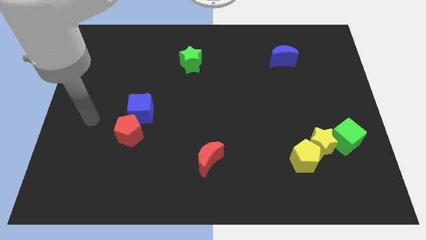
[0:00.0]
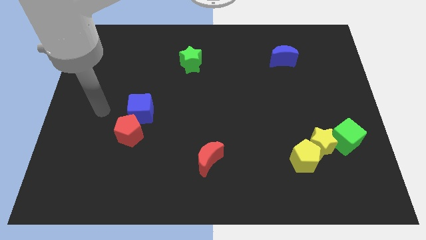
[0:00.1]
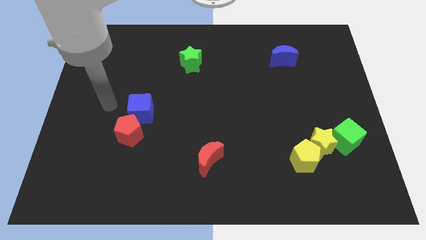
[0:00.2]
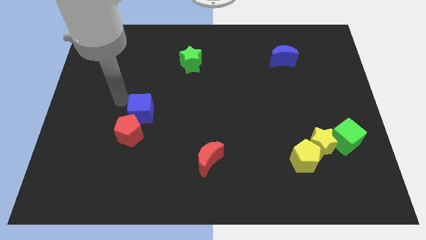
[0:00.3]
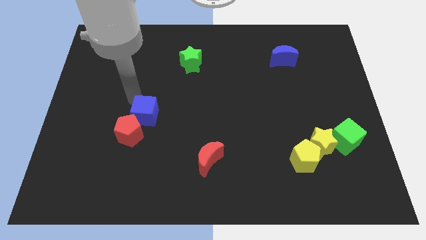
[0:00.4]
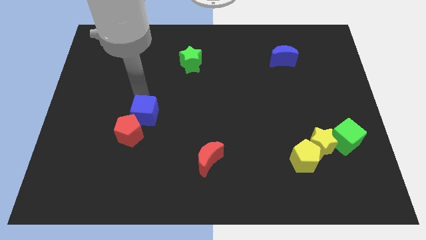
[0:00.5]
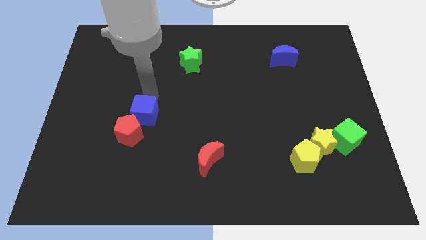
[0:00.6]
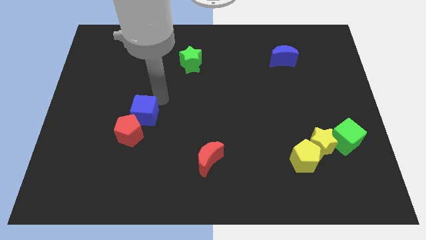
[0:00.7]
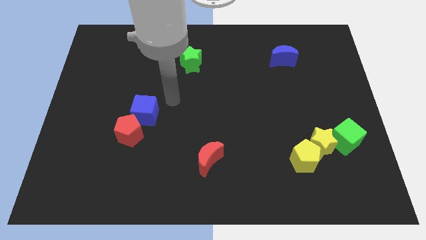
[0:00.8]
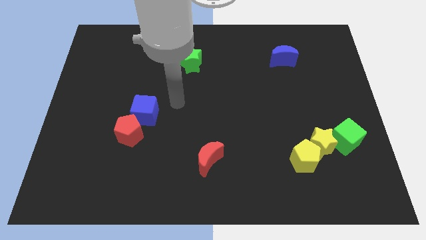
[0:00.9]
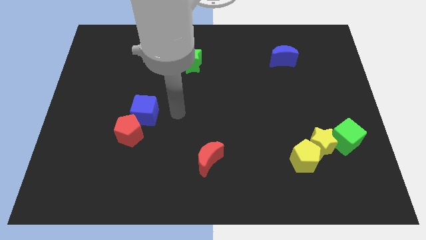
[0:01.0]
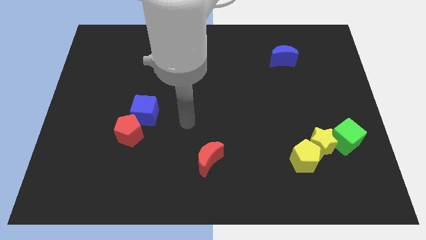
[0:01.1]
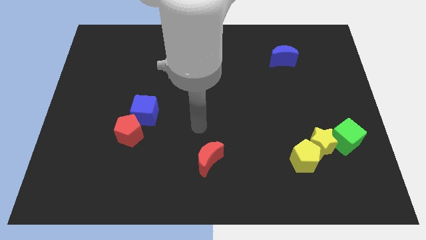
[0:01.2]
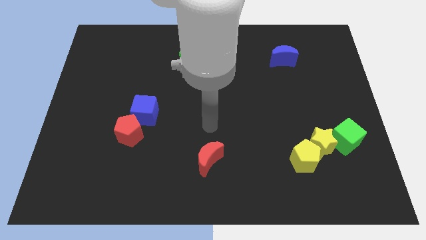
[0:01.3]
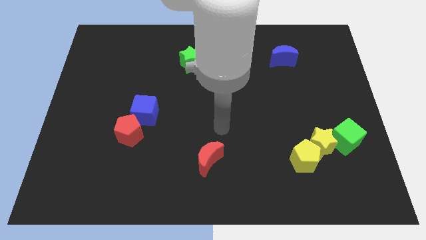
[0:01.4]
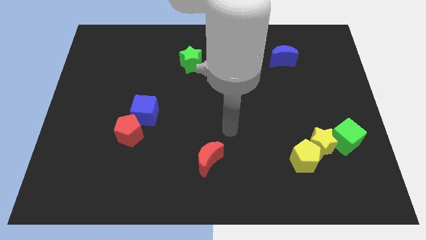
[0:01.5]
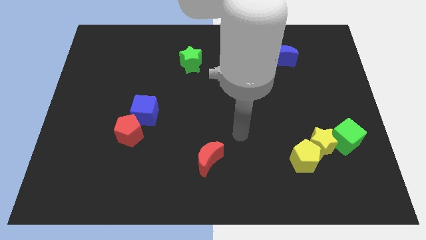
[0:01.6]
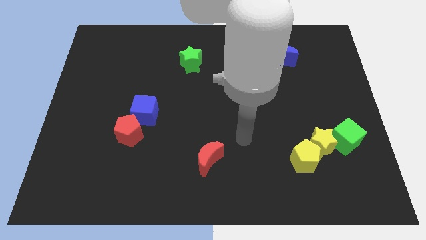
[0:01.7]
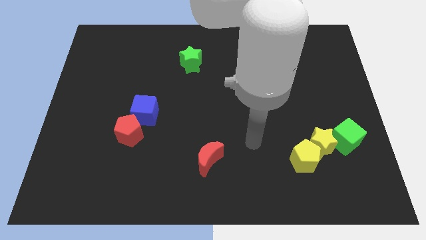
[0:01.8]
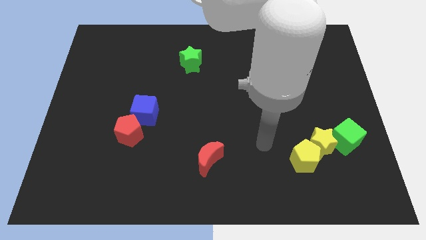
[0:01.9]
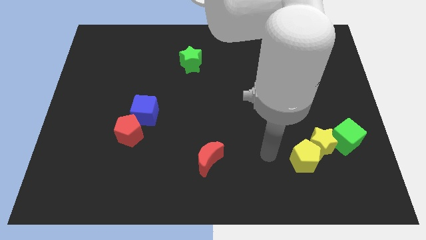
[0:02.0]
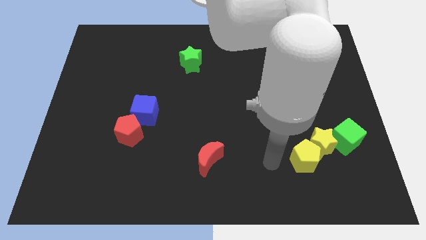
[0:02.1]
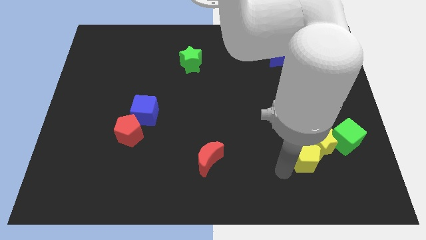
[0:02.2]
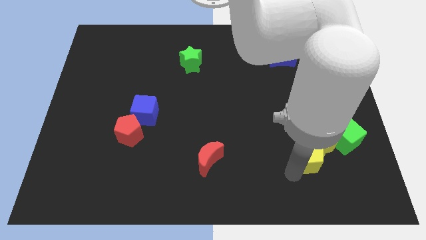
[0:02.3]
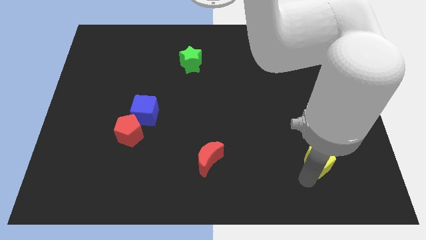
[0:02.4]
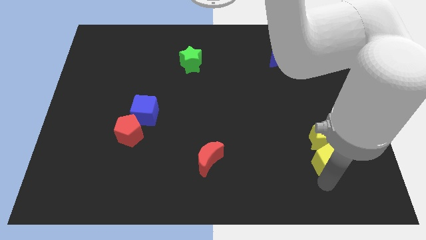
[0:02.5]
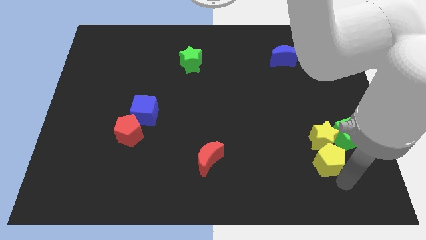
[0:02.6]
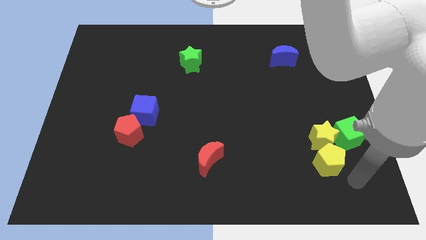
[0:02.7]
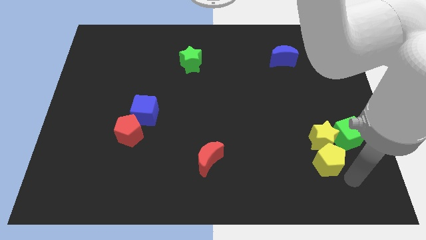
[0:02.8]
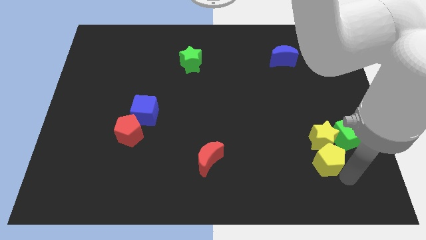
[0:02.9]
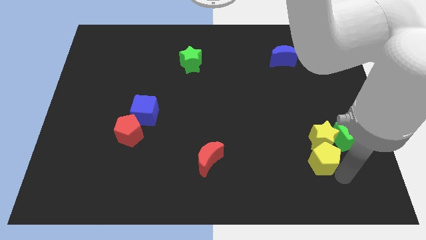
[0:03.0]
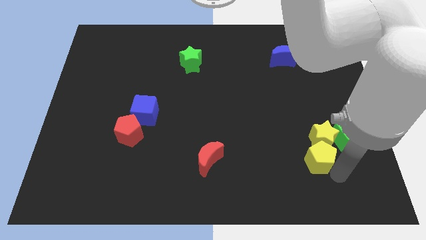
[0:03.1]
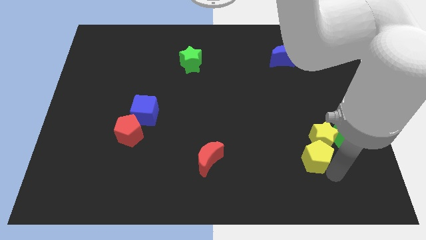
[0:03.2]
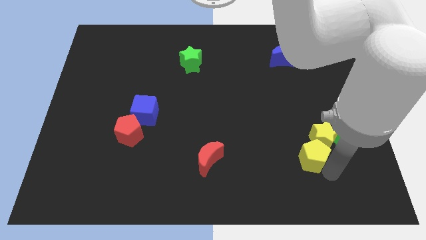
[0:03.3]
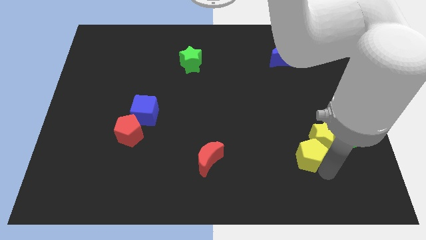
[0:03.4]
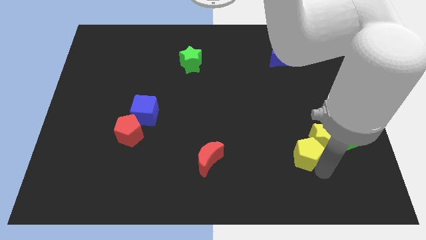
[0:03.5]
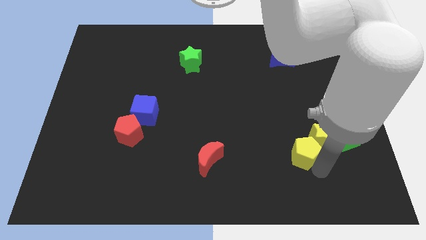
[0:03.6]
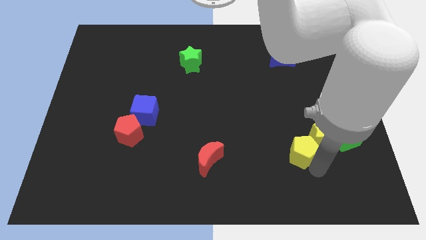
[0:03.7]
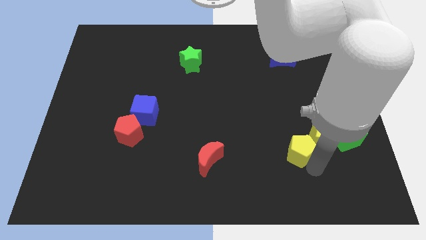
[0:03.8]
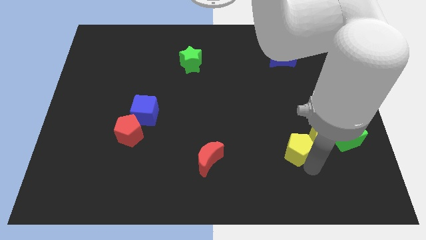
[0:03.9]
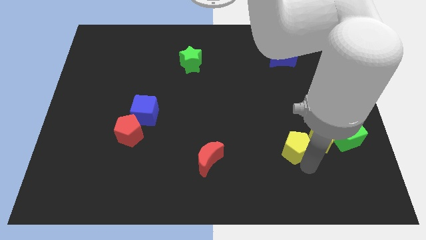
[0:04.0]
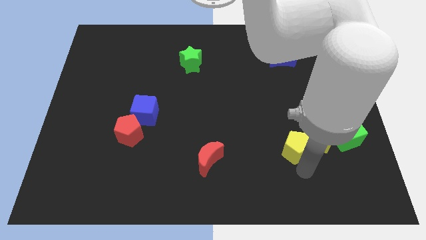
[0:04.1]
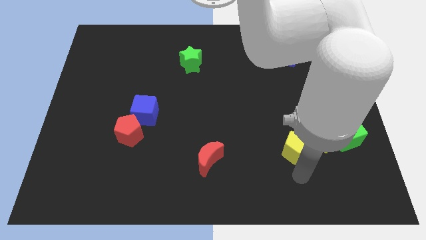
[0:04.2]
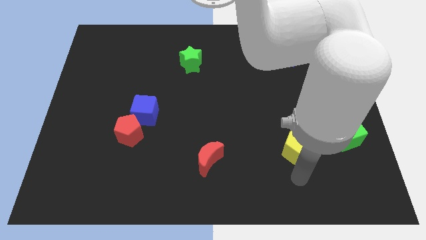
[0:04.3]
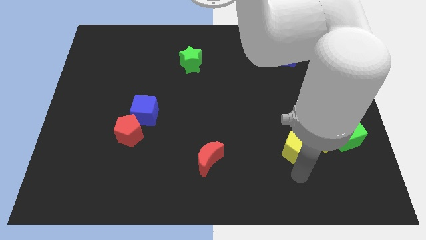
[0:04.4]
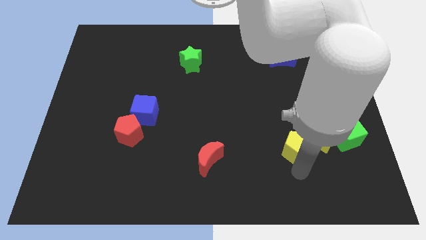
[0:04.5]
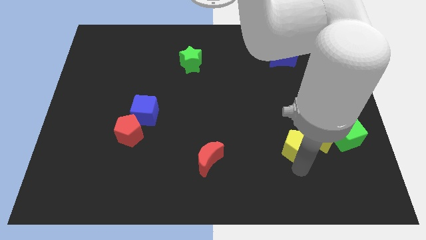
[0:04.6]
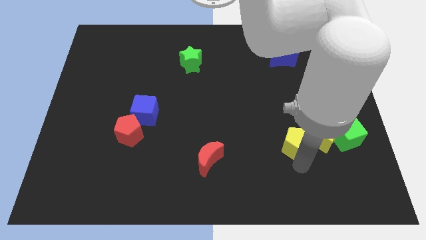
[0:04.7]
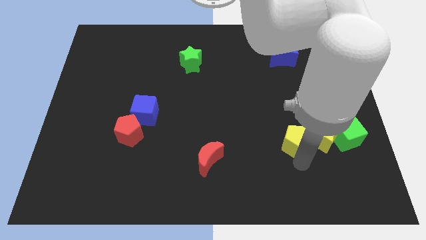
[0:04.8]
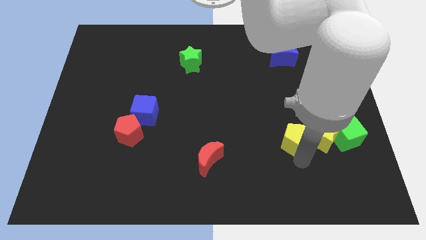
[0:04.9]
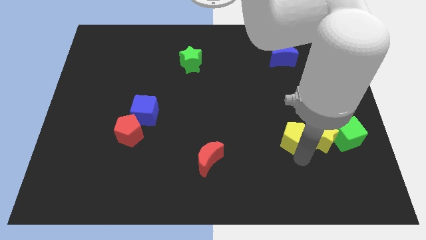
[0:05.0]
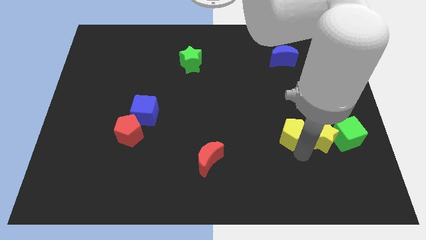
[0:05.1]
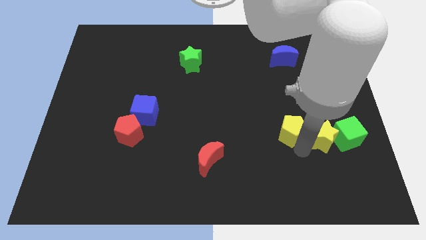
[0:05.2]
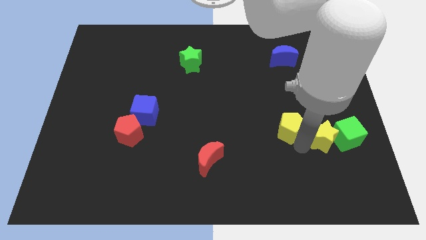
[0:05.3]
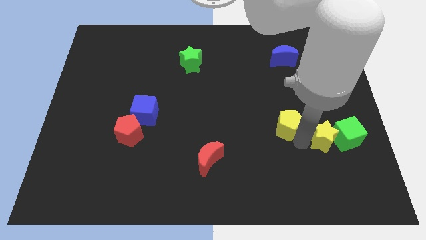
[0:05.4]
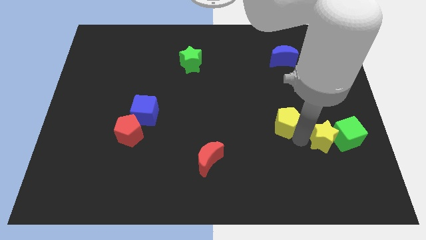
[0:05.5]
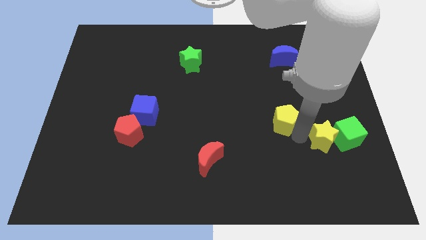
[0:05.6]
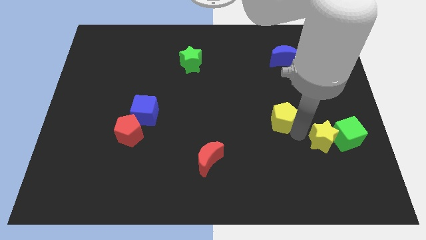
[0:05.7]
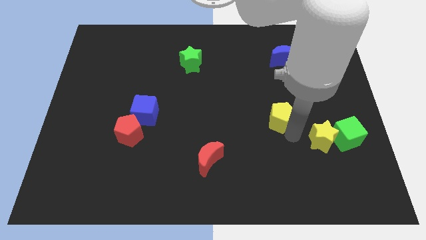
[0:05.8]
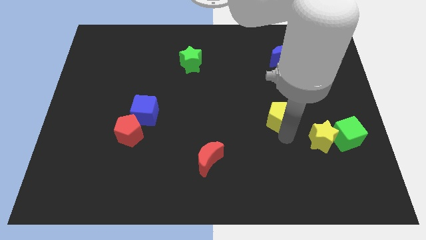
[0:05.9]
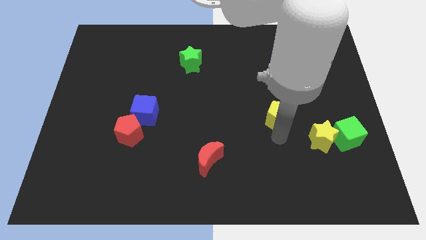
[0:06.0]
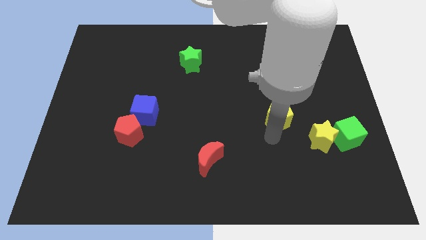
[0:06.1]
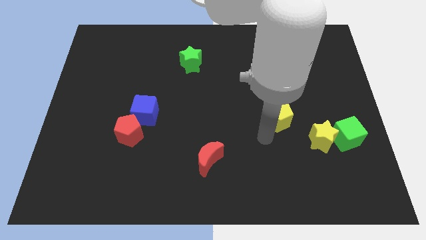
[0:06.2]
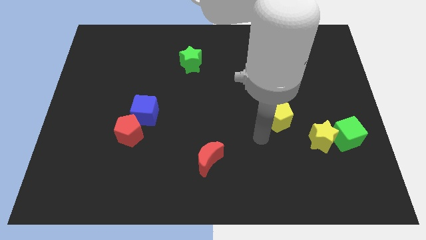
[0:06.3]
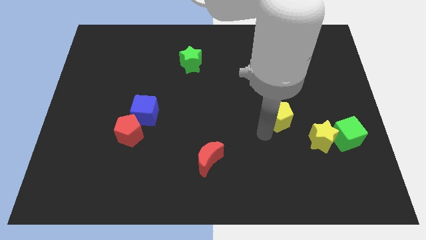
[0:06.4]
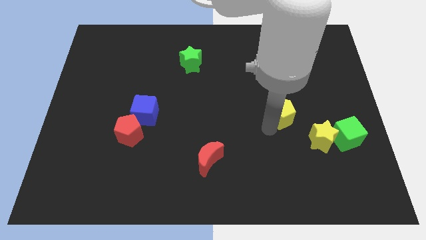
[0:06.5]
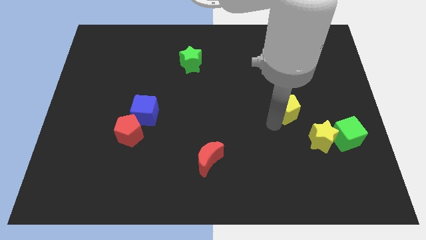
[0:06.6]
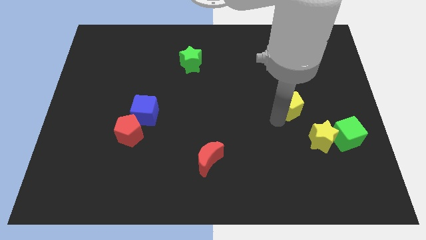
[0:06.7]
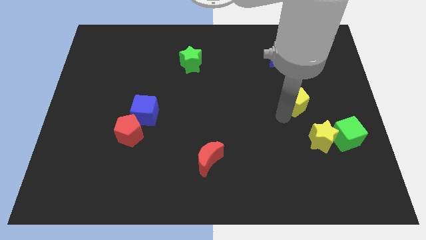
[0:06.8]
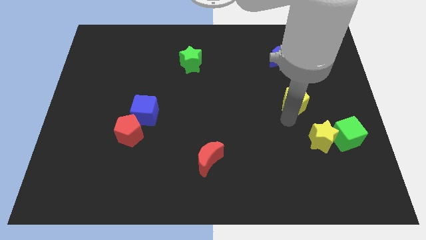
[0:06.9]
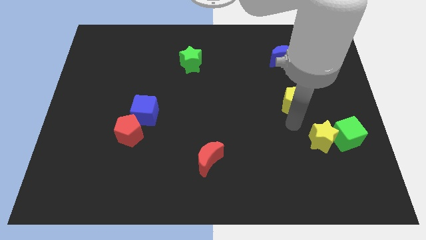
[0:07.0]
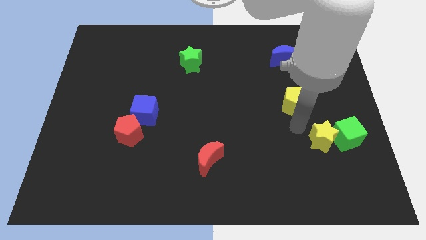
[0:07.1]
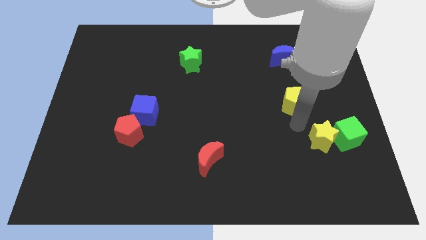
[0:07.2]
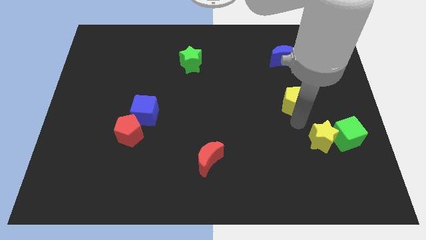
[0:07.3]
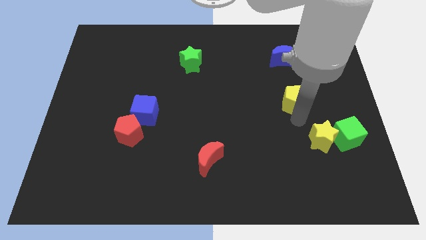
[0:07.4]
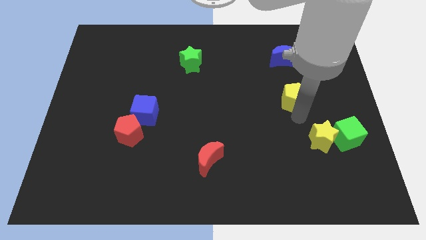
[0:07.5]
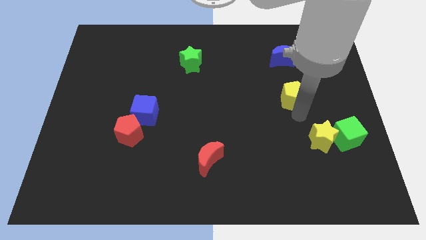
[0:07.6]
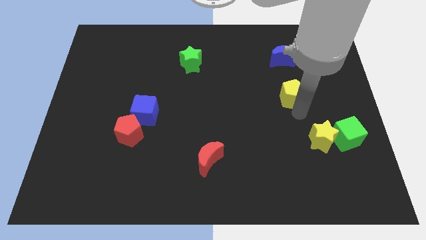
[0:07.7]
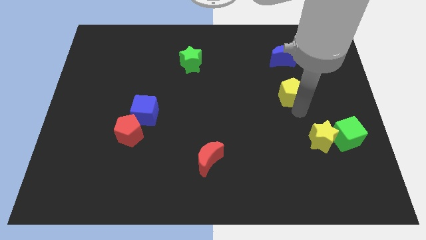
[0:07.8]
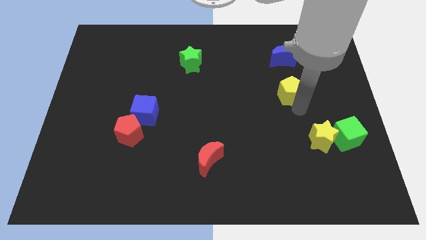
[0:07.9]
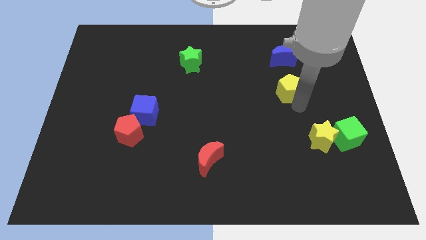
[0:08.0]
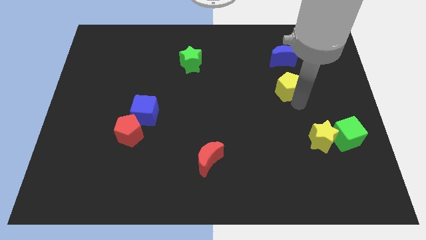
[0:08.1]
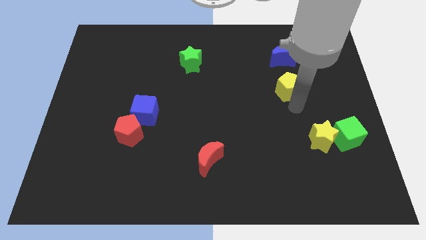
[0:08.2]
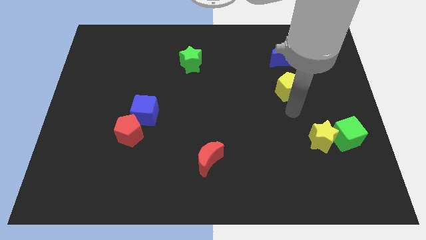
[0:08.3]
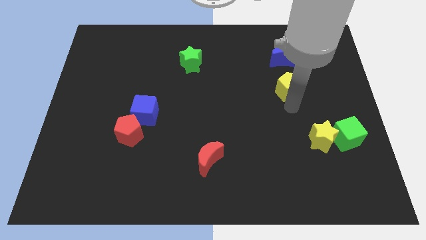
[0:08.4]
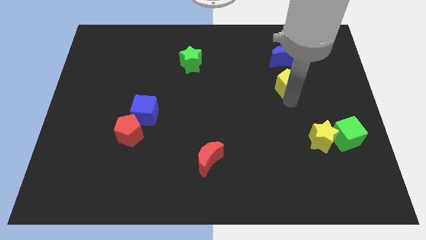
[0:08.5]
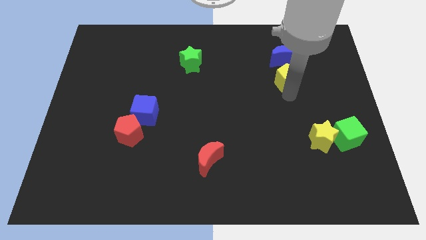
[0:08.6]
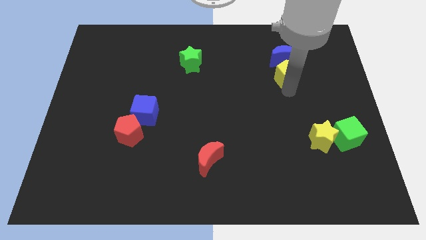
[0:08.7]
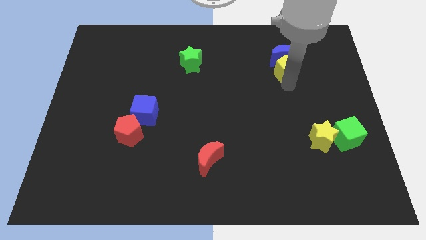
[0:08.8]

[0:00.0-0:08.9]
put the yellow pentagon close to the blue moon
